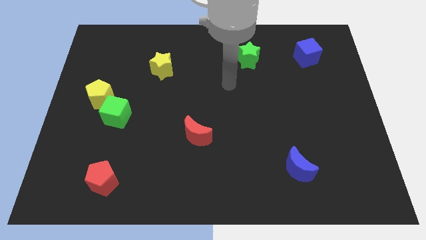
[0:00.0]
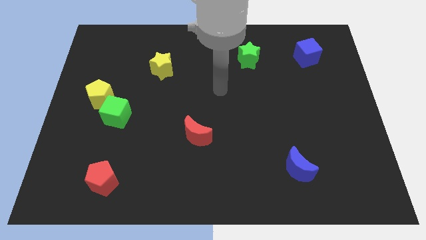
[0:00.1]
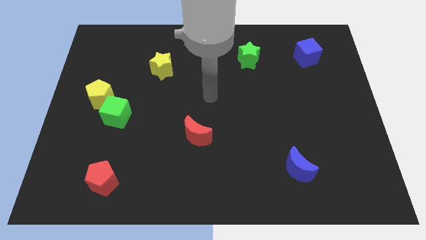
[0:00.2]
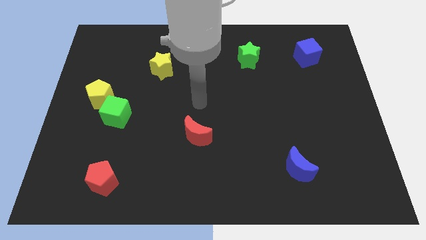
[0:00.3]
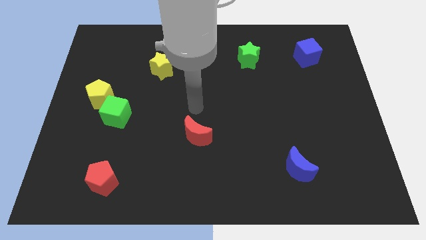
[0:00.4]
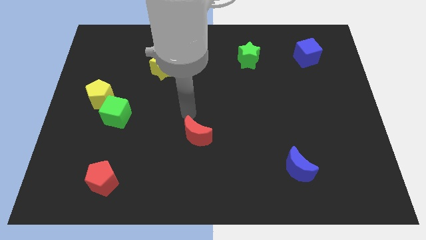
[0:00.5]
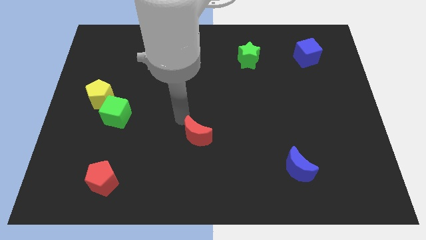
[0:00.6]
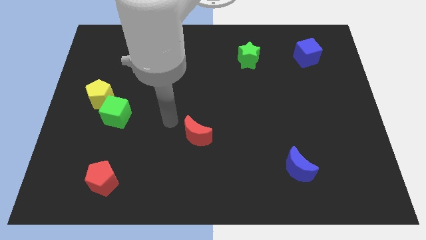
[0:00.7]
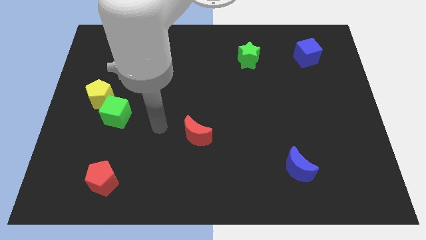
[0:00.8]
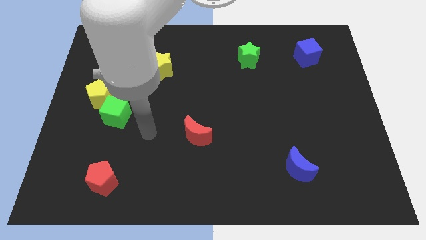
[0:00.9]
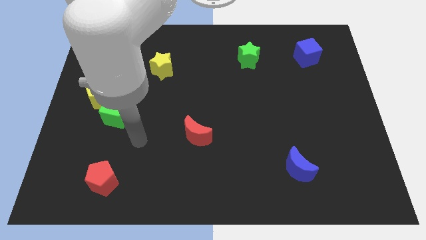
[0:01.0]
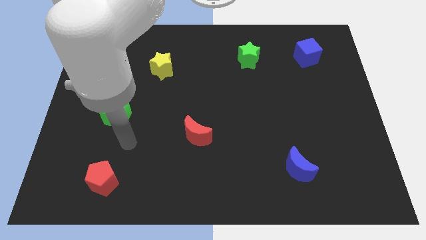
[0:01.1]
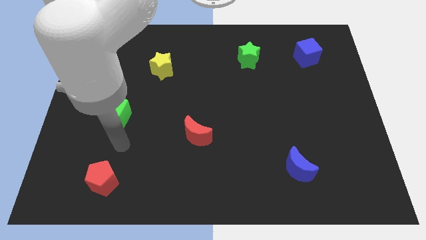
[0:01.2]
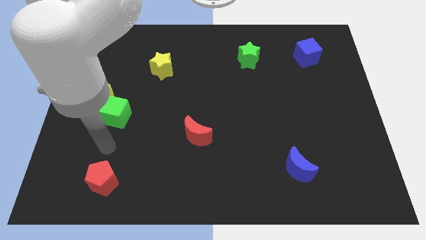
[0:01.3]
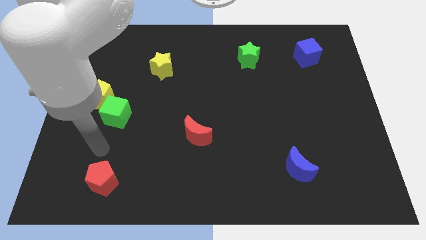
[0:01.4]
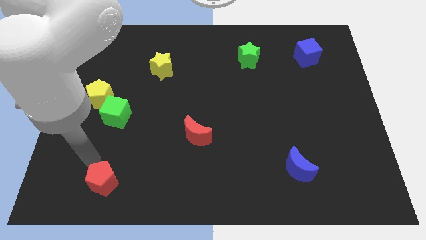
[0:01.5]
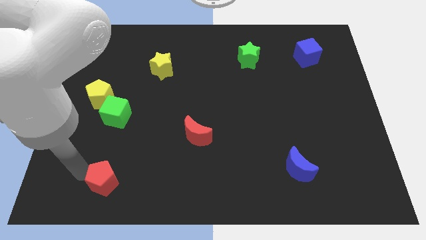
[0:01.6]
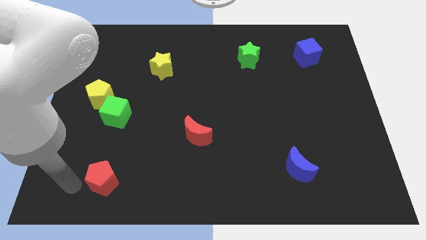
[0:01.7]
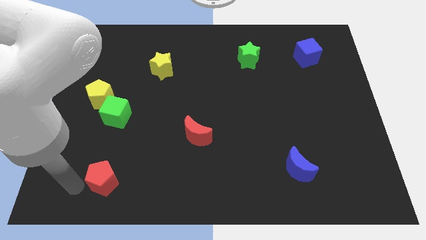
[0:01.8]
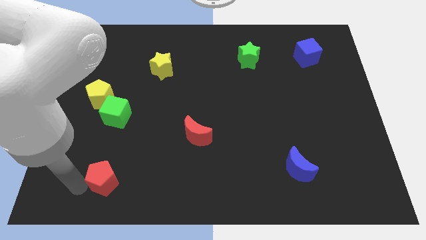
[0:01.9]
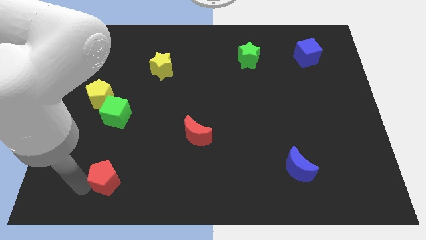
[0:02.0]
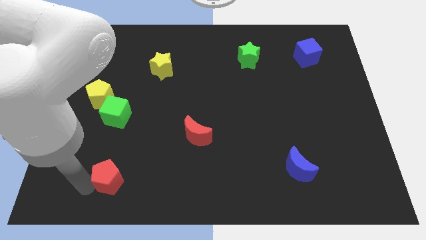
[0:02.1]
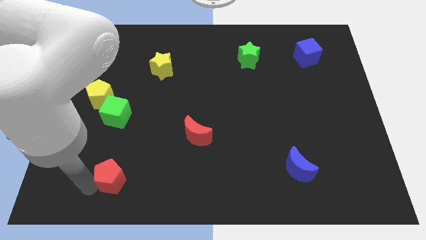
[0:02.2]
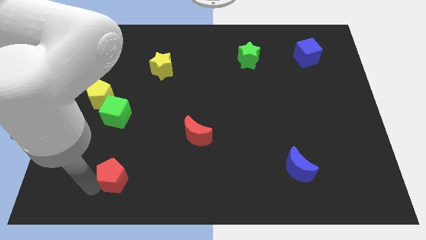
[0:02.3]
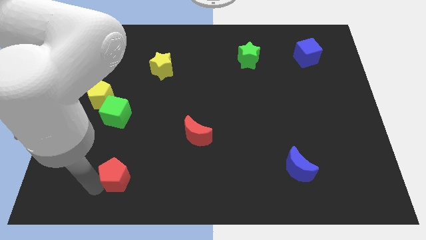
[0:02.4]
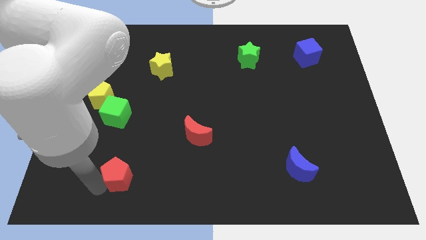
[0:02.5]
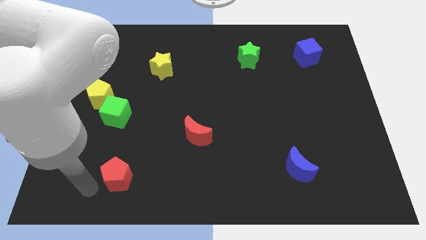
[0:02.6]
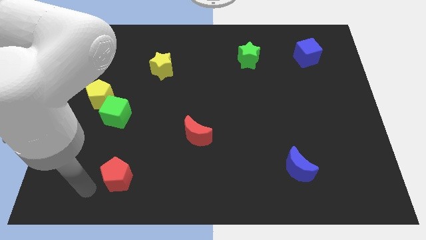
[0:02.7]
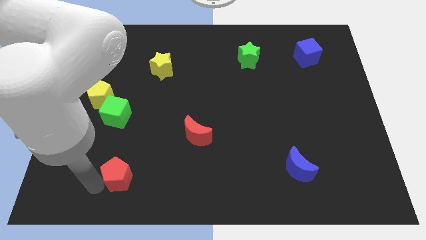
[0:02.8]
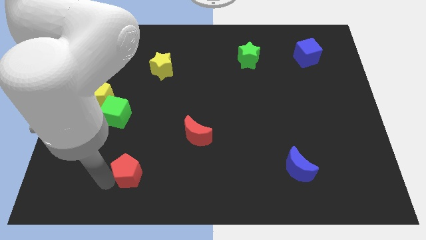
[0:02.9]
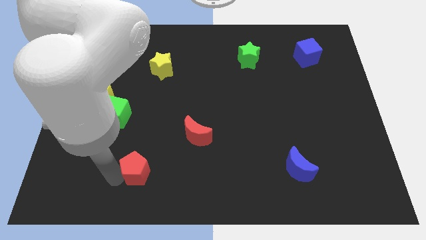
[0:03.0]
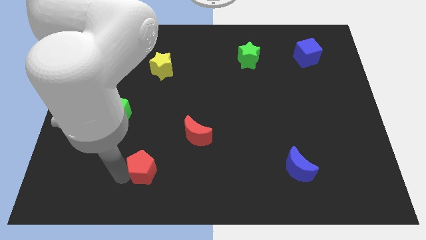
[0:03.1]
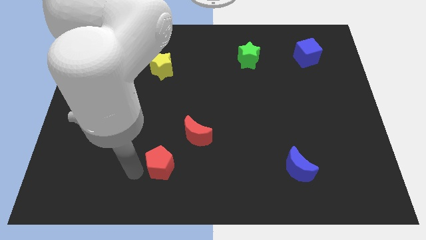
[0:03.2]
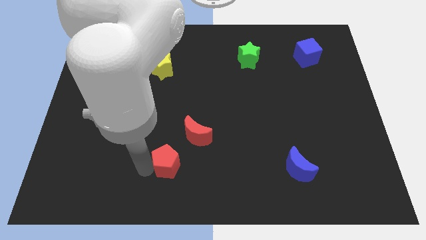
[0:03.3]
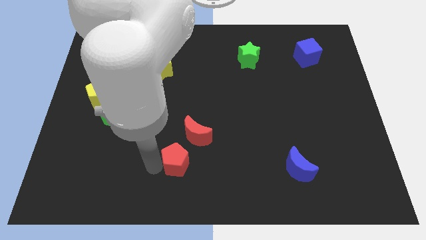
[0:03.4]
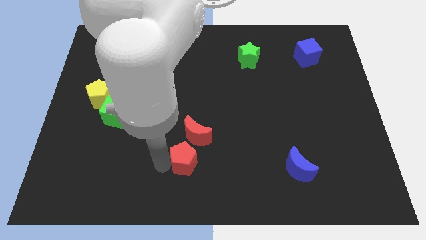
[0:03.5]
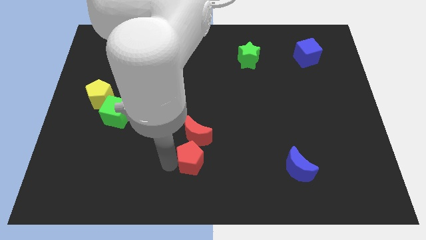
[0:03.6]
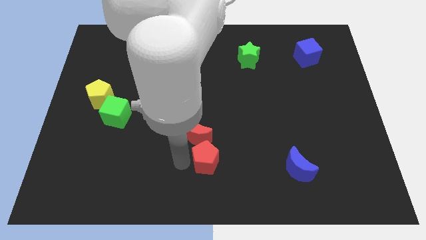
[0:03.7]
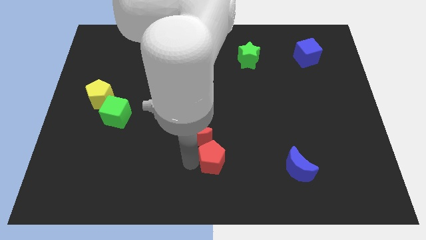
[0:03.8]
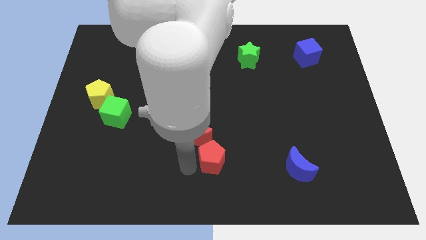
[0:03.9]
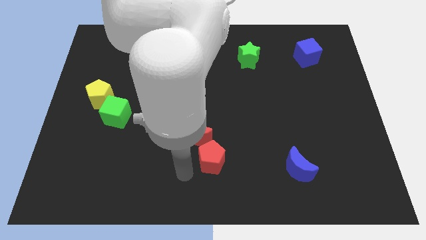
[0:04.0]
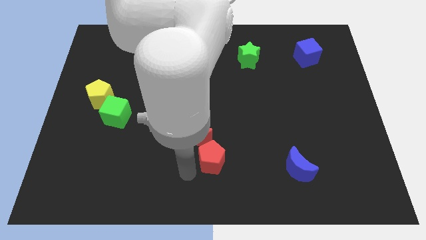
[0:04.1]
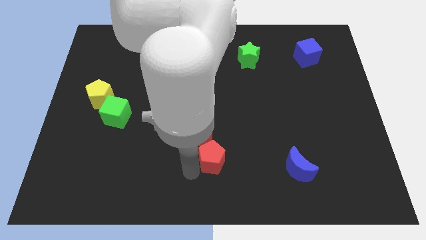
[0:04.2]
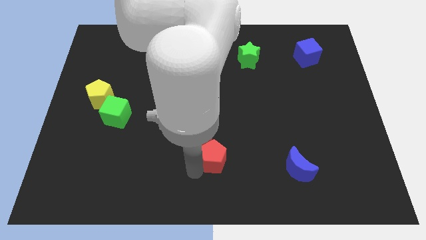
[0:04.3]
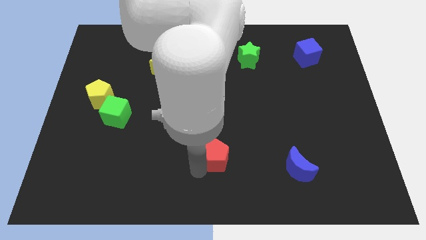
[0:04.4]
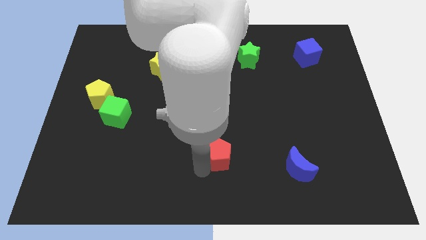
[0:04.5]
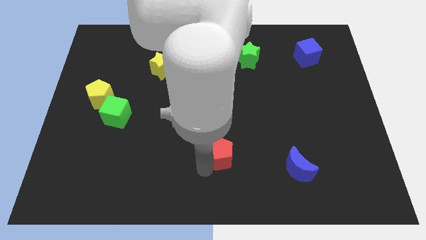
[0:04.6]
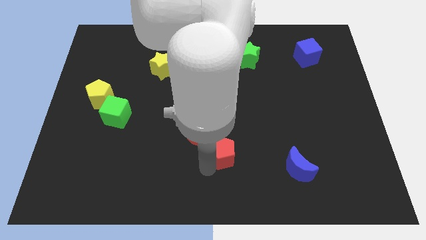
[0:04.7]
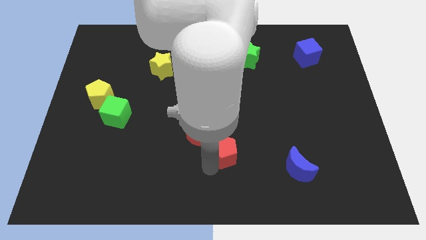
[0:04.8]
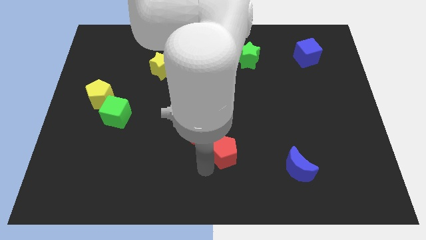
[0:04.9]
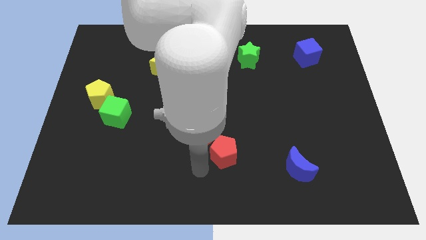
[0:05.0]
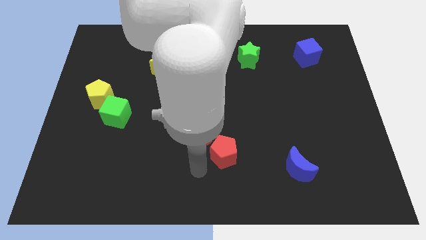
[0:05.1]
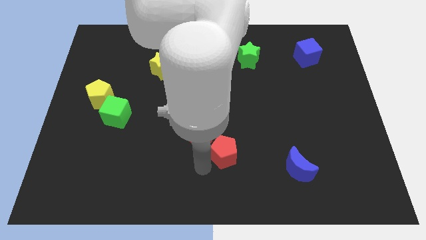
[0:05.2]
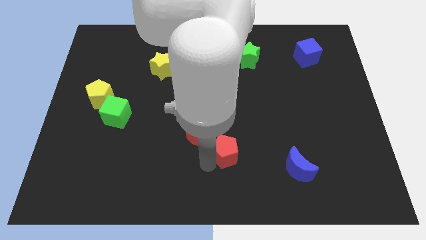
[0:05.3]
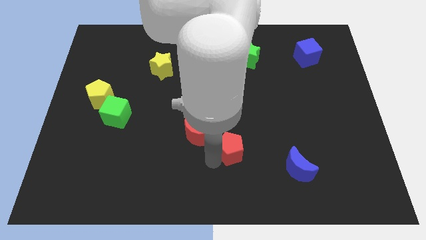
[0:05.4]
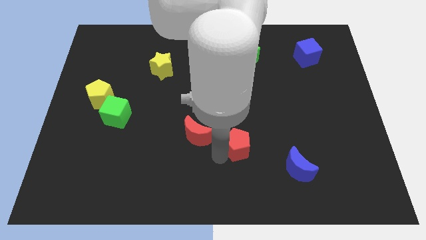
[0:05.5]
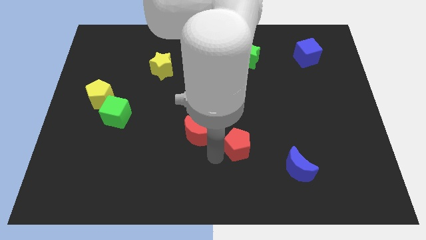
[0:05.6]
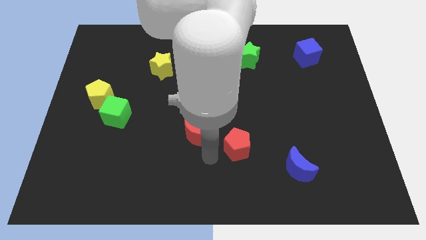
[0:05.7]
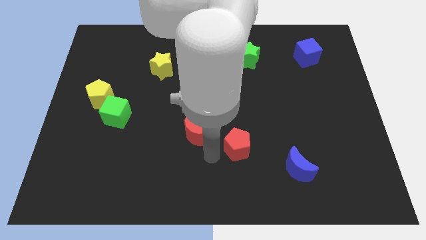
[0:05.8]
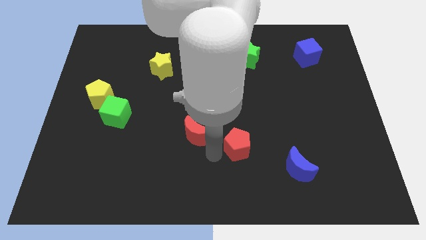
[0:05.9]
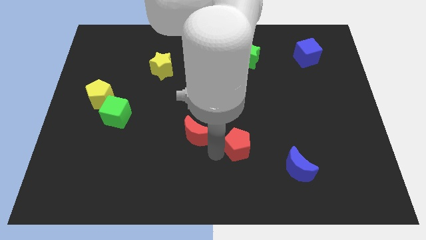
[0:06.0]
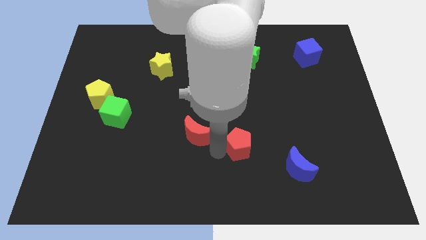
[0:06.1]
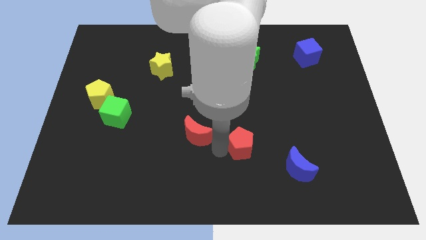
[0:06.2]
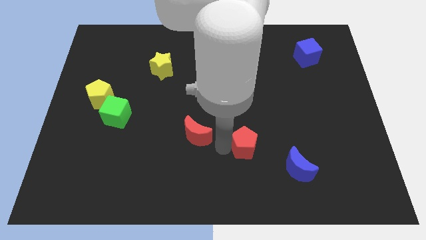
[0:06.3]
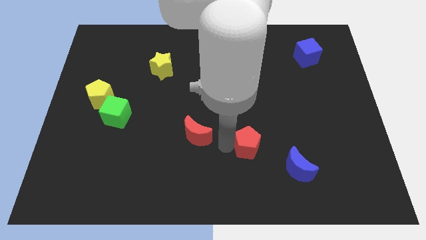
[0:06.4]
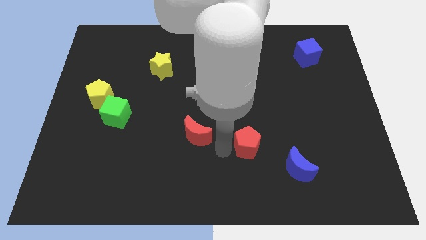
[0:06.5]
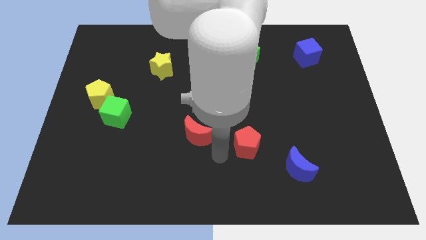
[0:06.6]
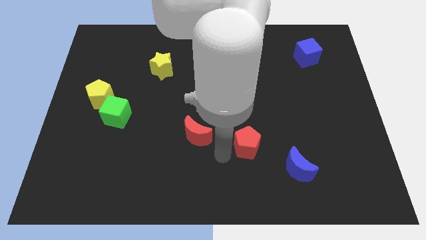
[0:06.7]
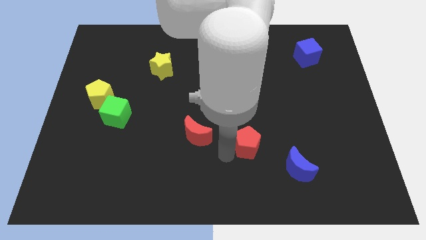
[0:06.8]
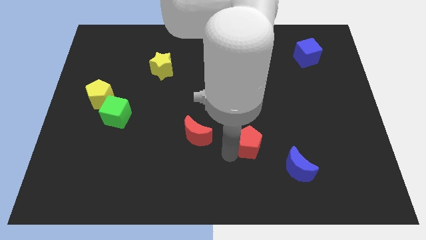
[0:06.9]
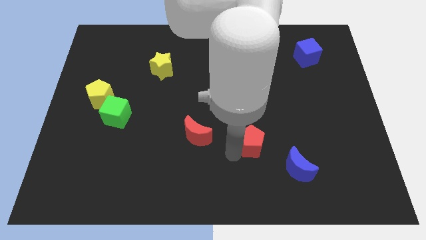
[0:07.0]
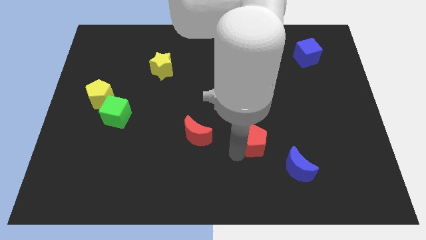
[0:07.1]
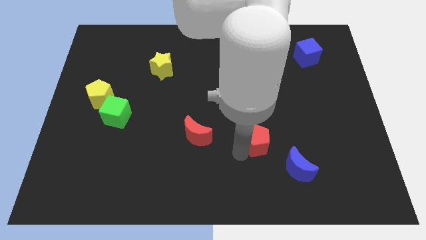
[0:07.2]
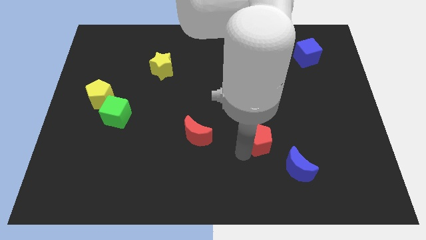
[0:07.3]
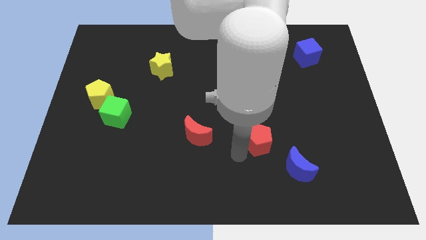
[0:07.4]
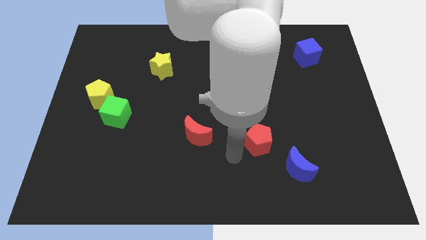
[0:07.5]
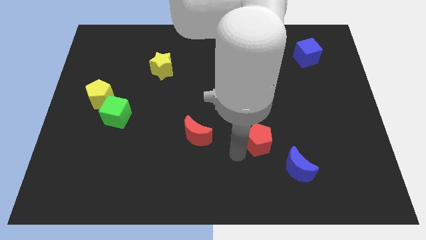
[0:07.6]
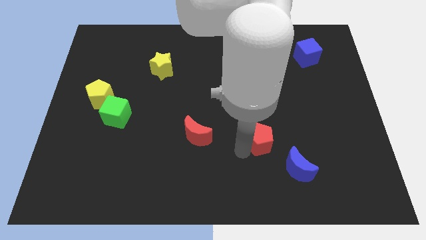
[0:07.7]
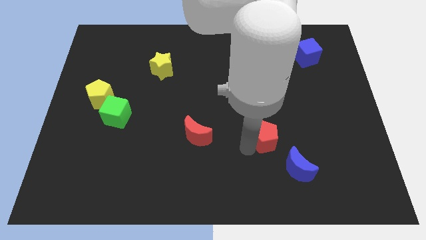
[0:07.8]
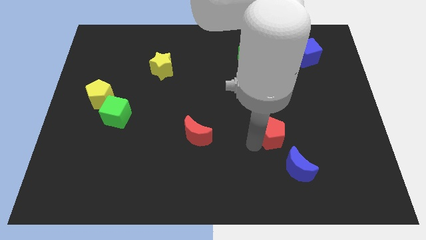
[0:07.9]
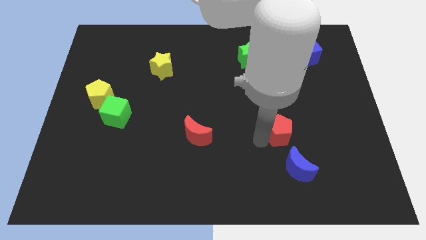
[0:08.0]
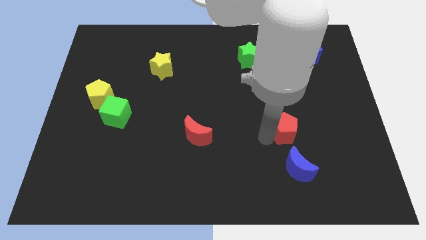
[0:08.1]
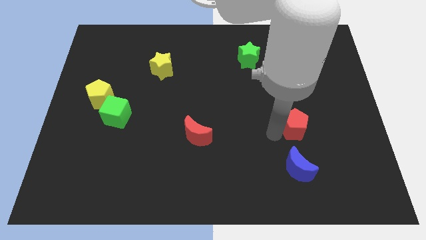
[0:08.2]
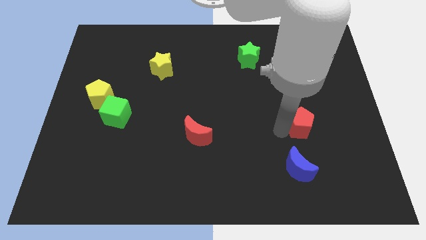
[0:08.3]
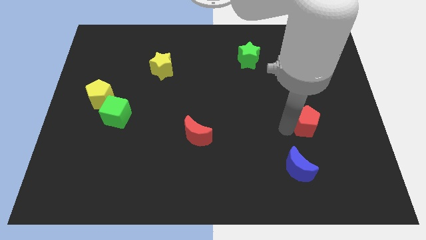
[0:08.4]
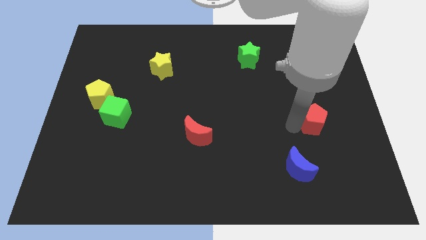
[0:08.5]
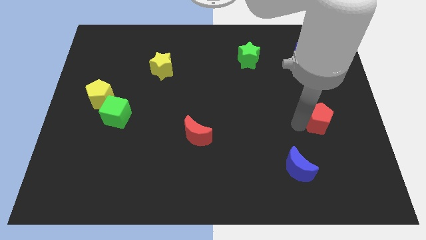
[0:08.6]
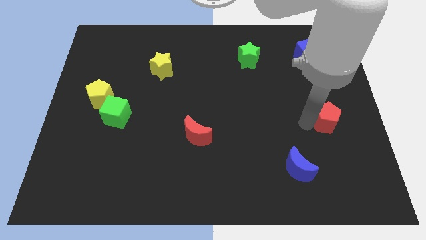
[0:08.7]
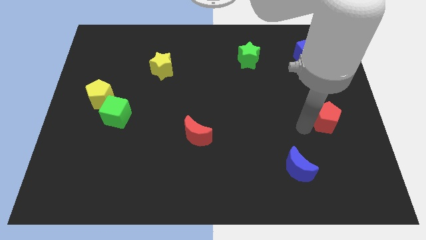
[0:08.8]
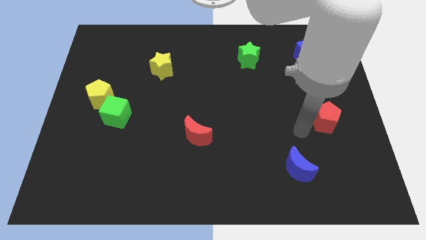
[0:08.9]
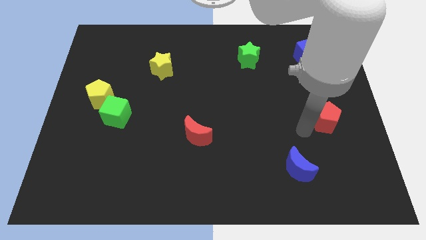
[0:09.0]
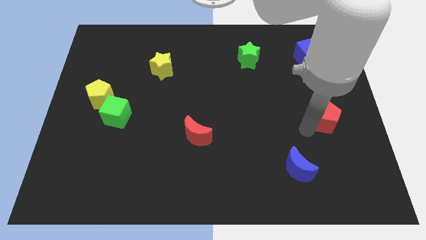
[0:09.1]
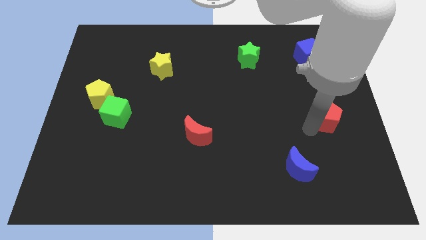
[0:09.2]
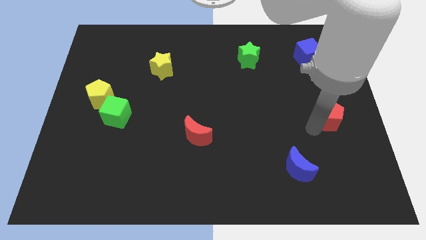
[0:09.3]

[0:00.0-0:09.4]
slide the red pentagon to the center right
